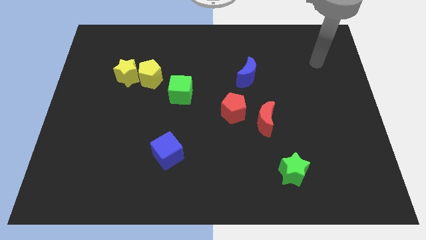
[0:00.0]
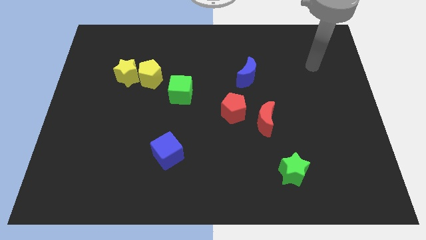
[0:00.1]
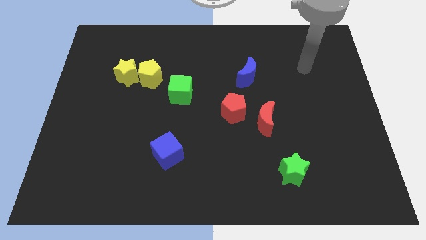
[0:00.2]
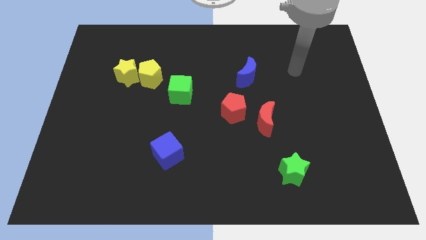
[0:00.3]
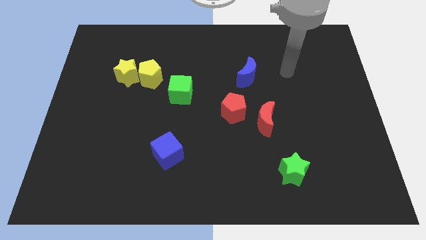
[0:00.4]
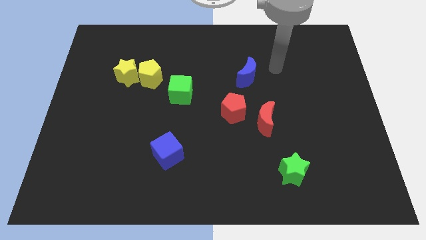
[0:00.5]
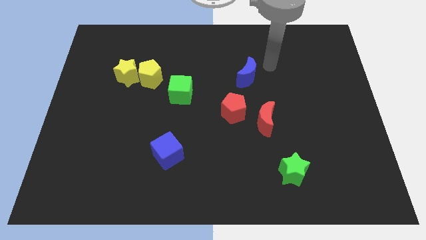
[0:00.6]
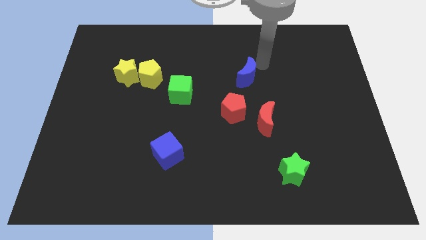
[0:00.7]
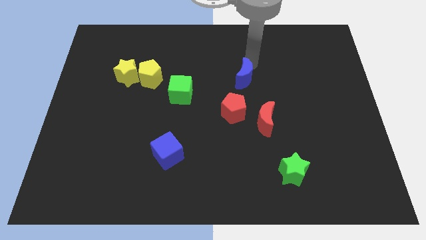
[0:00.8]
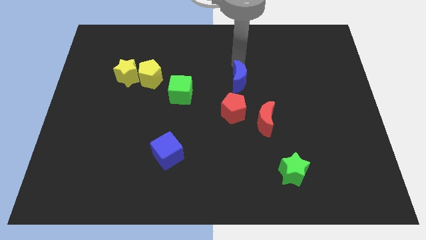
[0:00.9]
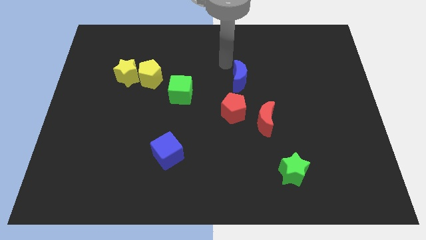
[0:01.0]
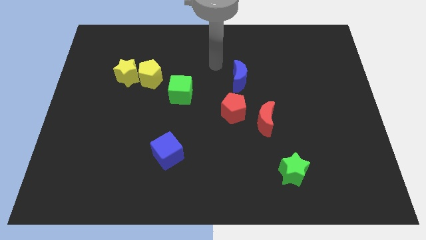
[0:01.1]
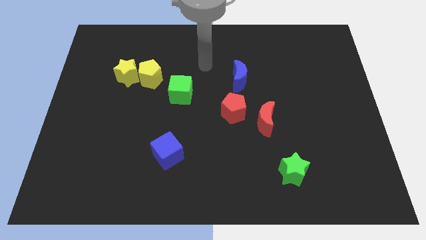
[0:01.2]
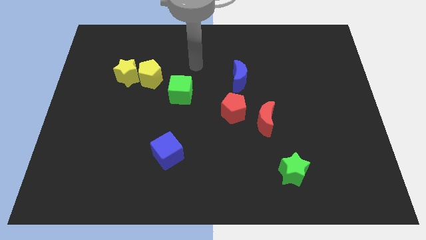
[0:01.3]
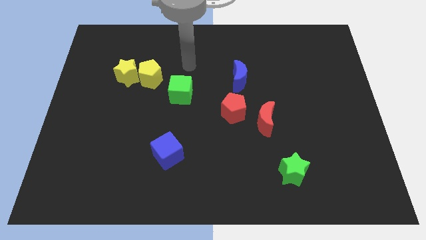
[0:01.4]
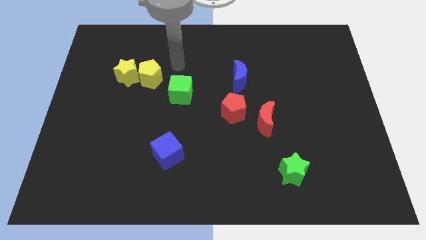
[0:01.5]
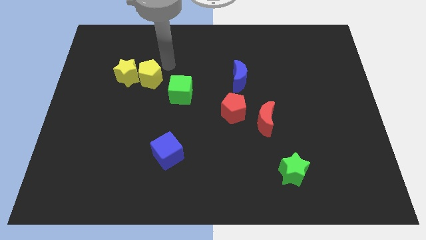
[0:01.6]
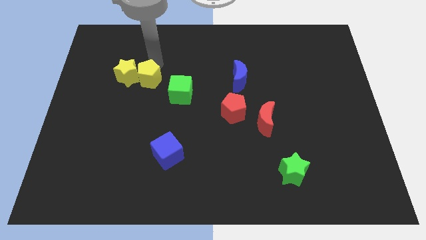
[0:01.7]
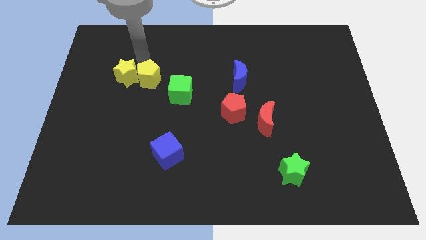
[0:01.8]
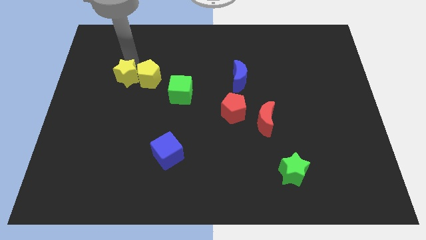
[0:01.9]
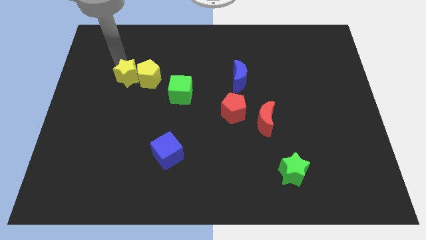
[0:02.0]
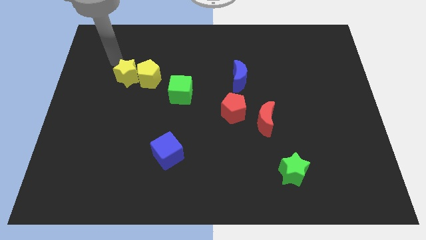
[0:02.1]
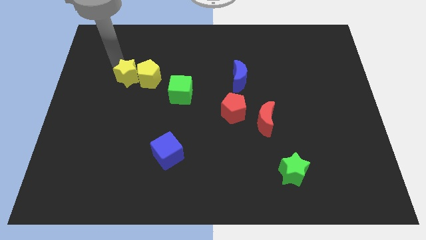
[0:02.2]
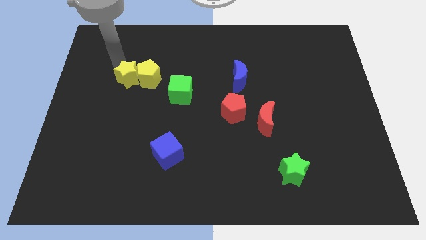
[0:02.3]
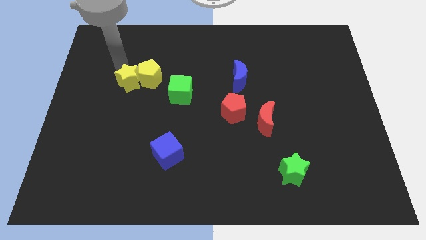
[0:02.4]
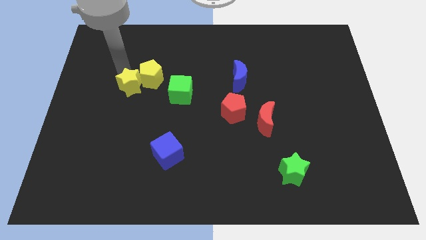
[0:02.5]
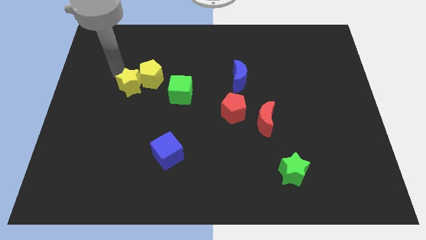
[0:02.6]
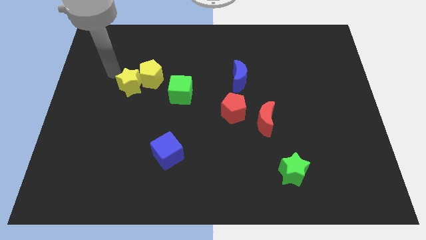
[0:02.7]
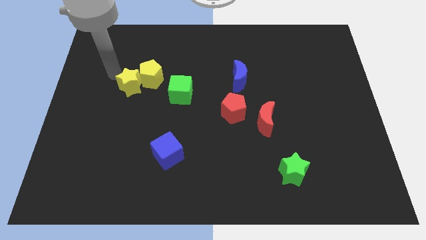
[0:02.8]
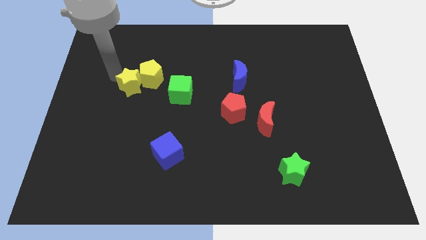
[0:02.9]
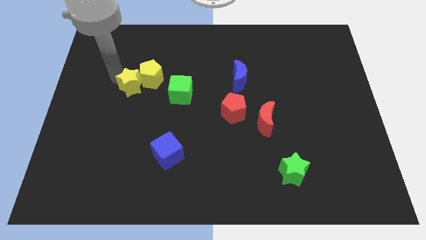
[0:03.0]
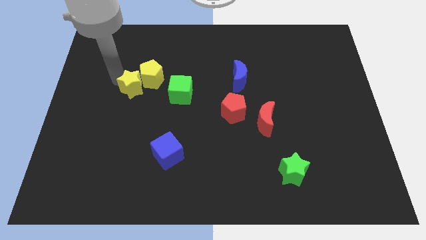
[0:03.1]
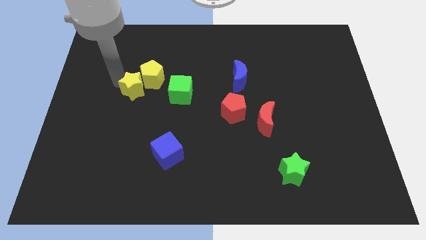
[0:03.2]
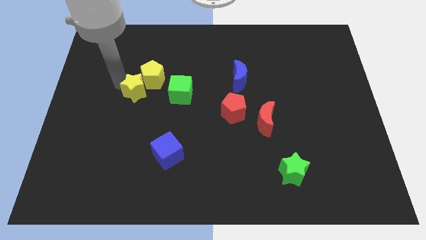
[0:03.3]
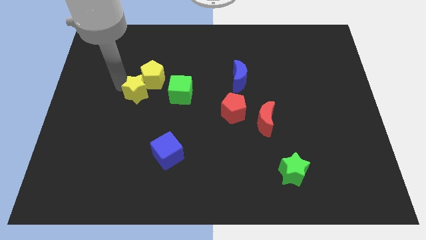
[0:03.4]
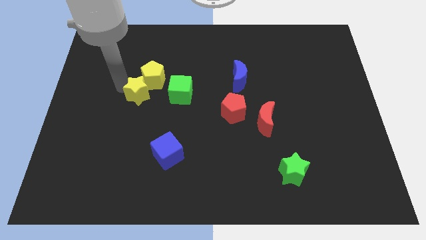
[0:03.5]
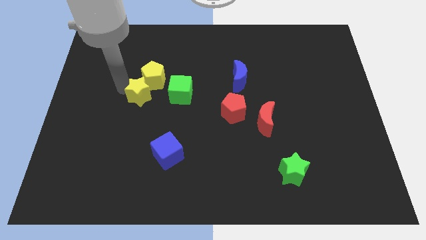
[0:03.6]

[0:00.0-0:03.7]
move the yellow star a little bit down and to the right

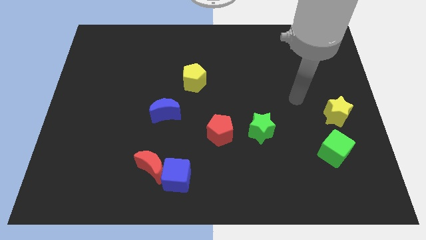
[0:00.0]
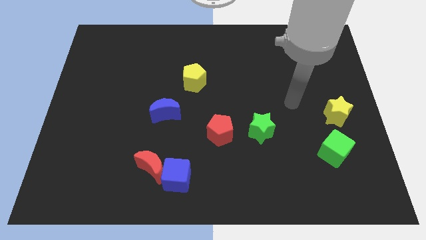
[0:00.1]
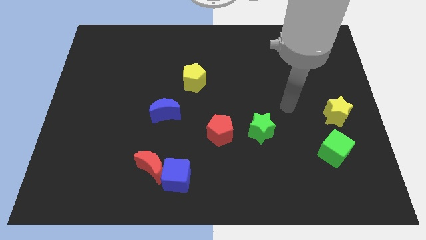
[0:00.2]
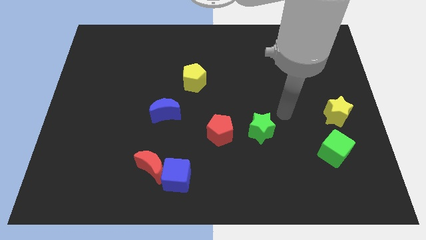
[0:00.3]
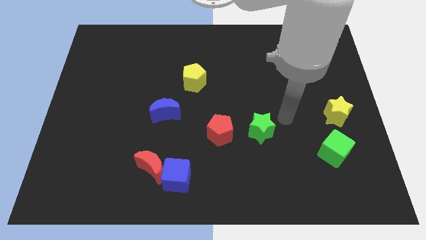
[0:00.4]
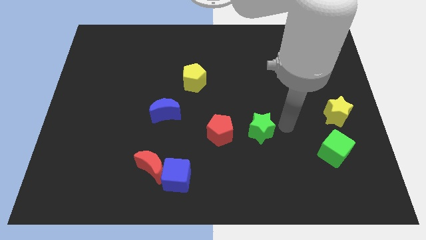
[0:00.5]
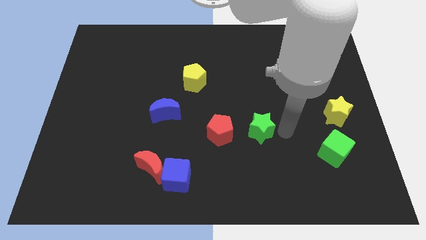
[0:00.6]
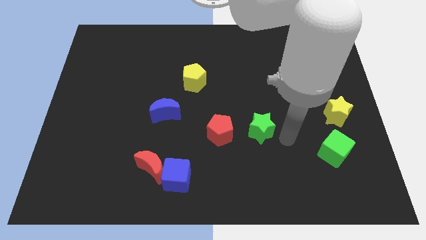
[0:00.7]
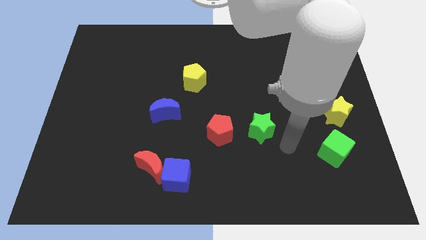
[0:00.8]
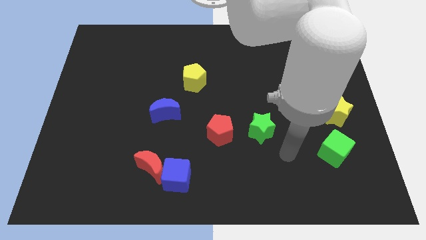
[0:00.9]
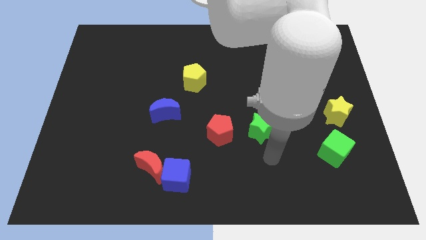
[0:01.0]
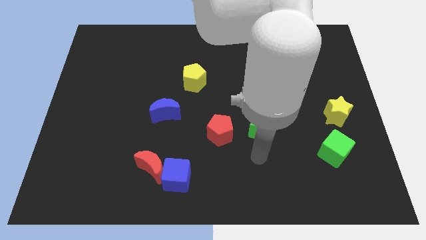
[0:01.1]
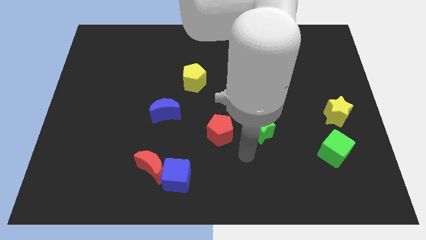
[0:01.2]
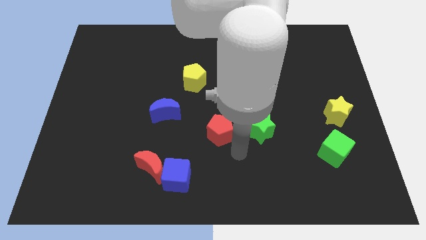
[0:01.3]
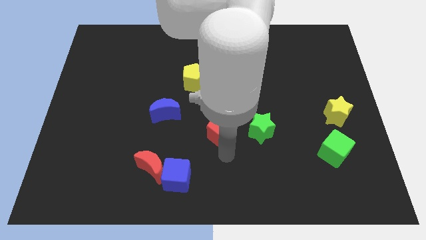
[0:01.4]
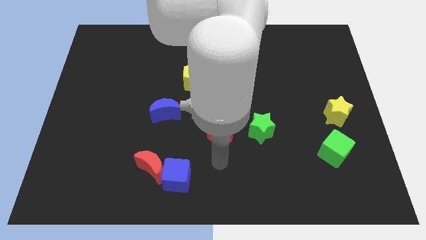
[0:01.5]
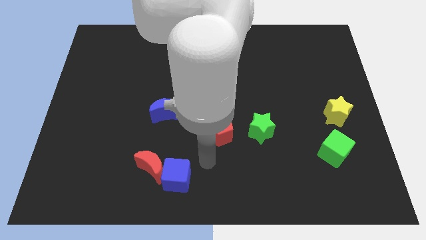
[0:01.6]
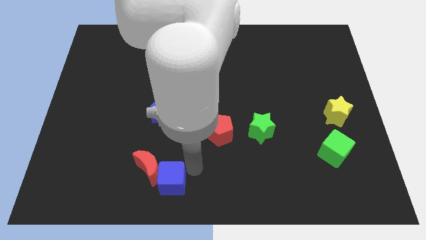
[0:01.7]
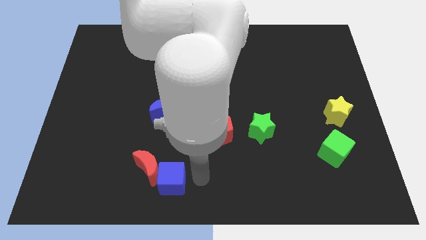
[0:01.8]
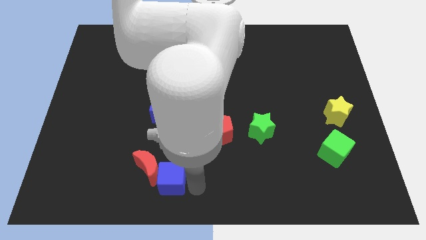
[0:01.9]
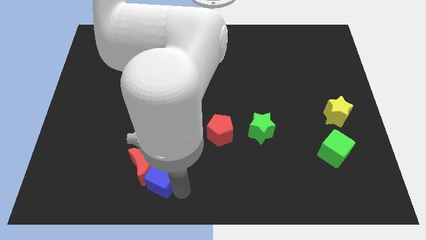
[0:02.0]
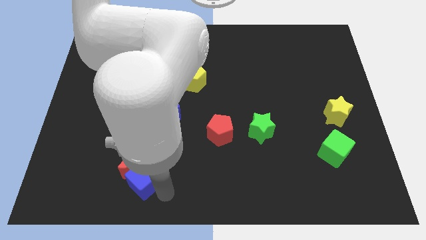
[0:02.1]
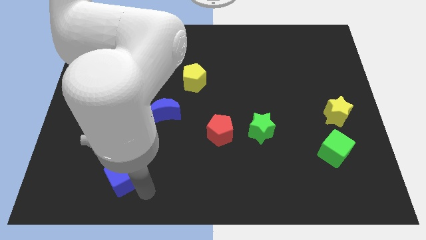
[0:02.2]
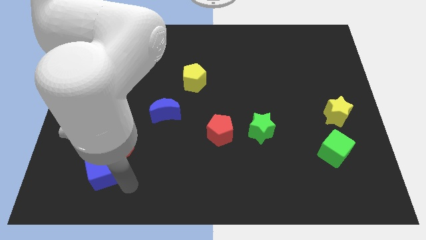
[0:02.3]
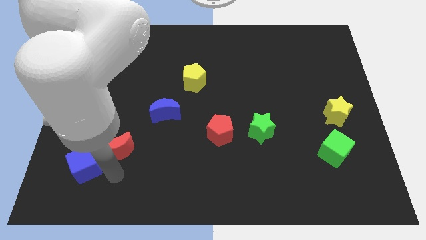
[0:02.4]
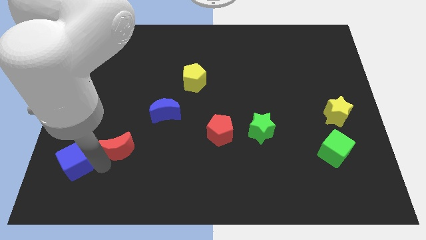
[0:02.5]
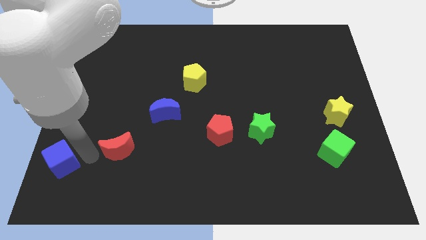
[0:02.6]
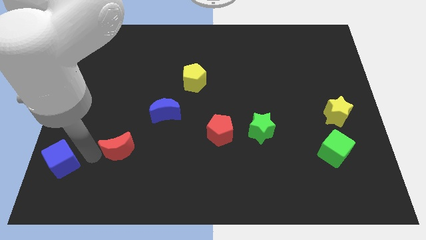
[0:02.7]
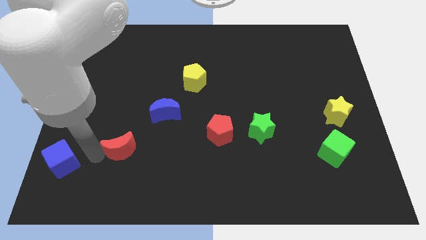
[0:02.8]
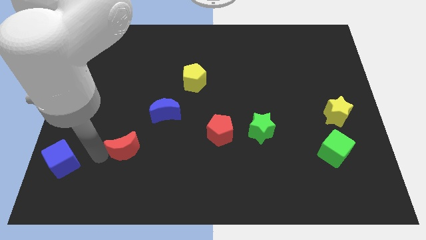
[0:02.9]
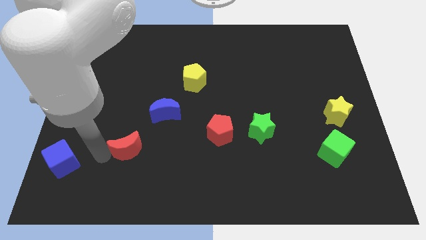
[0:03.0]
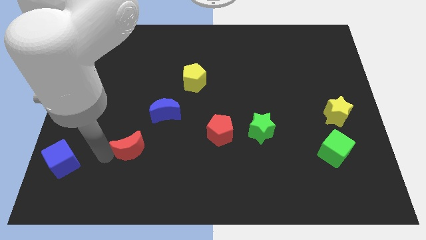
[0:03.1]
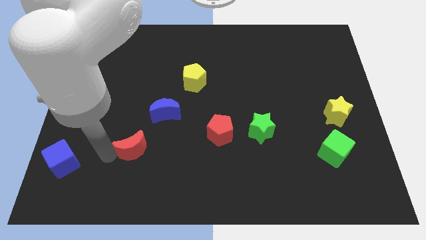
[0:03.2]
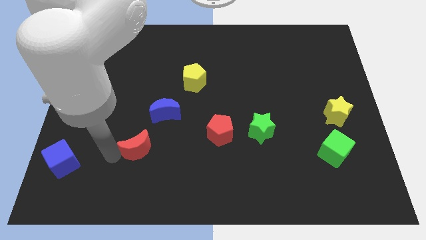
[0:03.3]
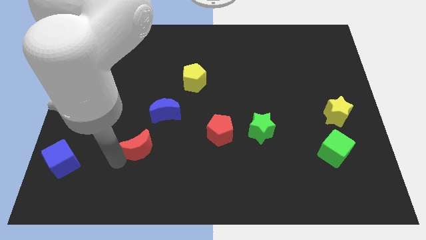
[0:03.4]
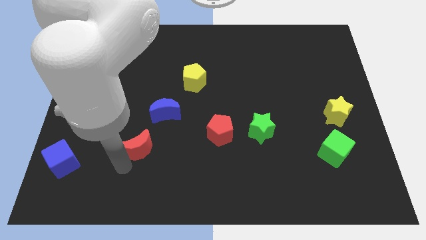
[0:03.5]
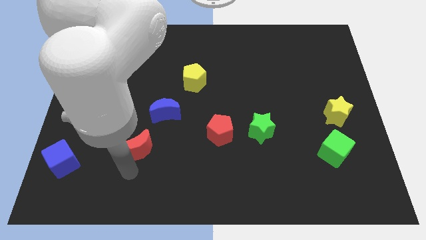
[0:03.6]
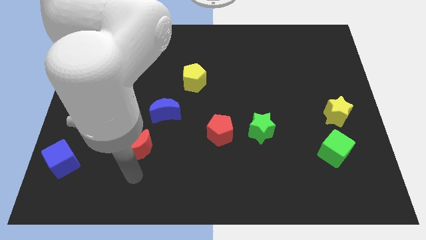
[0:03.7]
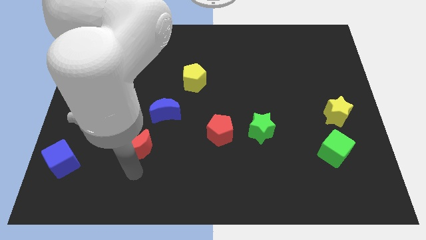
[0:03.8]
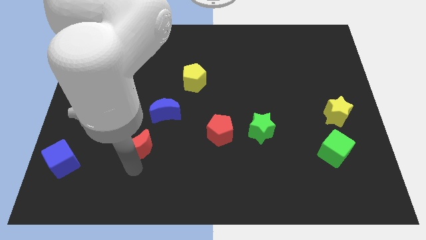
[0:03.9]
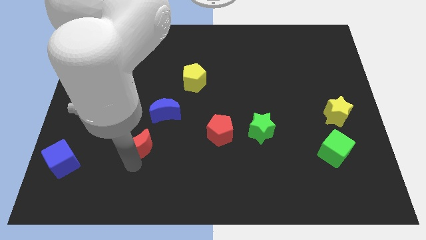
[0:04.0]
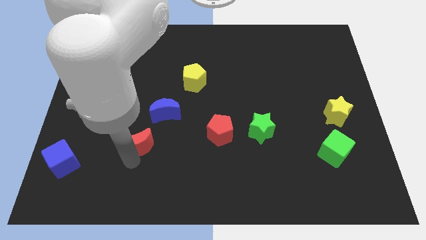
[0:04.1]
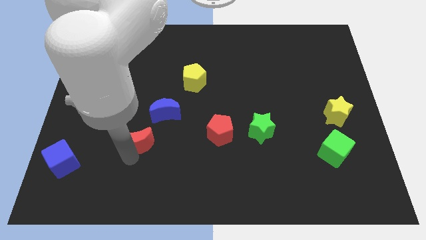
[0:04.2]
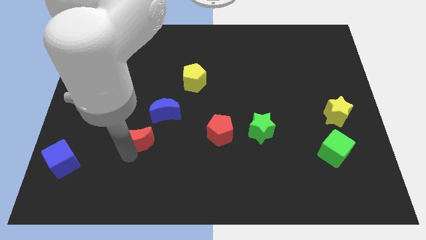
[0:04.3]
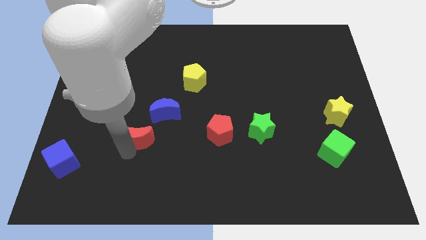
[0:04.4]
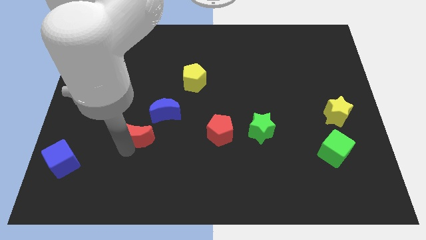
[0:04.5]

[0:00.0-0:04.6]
slightly push the red moon up
